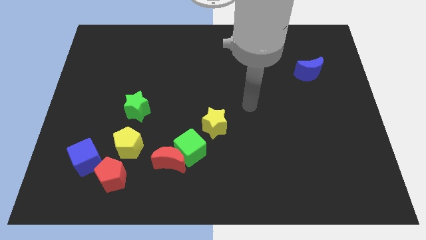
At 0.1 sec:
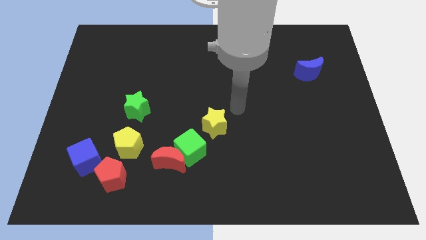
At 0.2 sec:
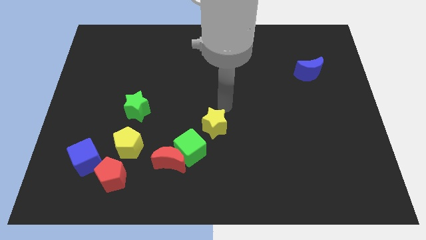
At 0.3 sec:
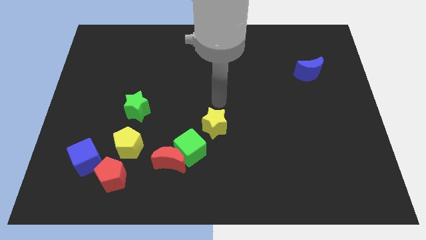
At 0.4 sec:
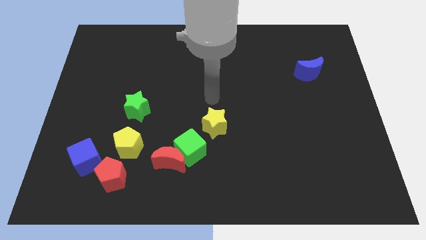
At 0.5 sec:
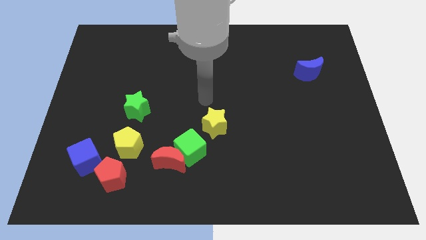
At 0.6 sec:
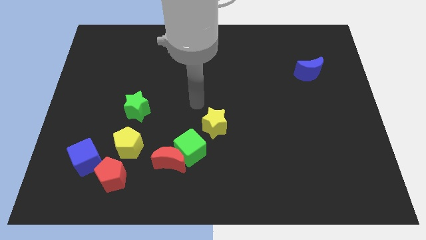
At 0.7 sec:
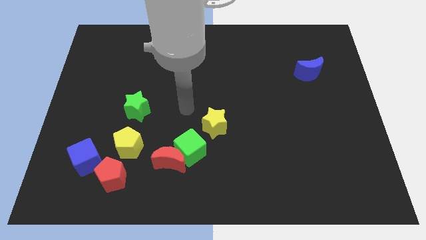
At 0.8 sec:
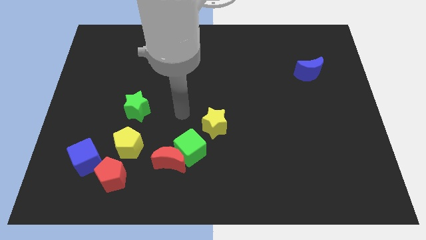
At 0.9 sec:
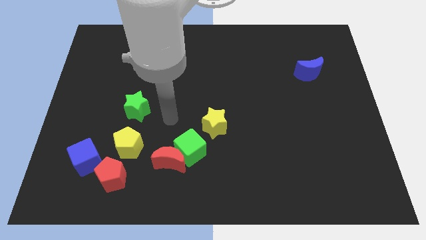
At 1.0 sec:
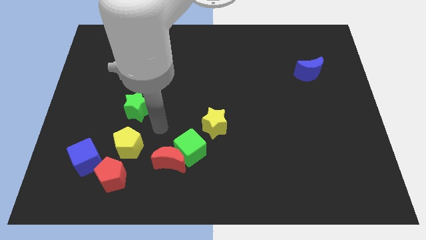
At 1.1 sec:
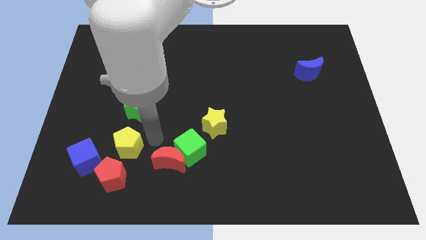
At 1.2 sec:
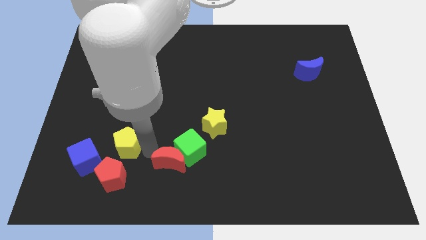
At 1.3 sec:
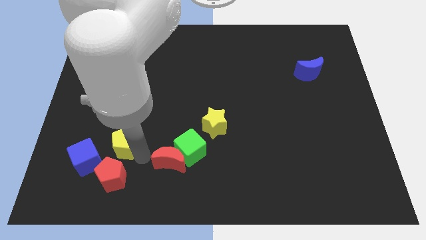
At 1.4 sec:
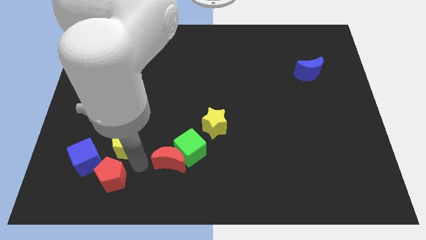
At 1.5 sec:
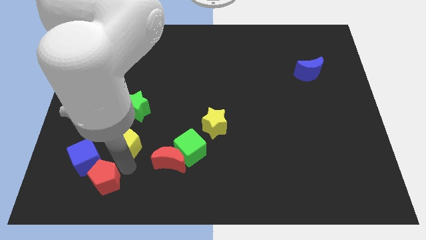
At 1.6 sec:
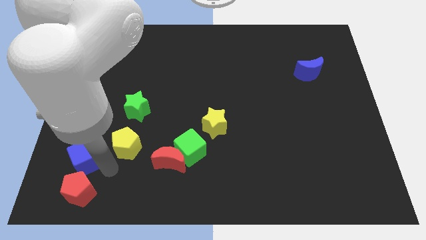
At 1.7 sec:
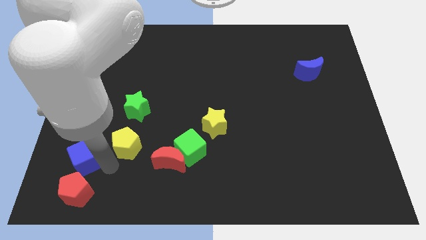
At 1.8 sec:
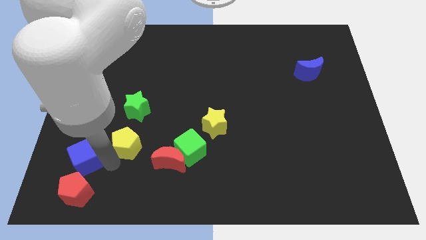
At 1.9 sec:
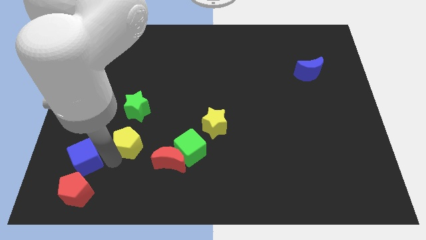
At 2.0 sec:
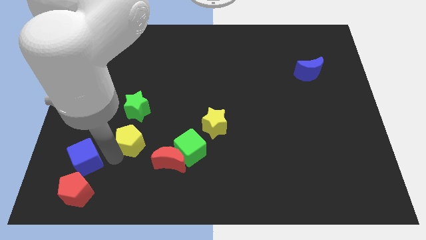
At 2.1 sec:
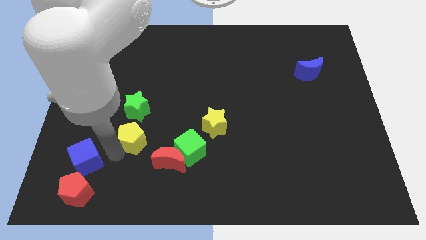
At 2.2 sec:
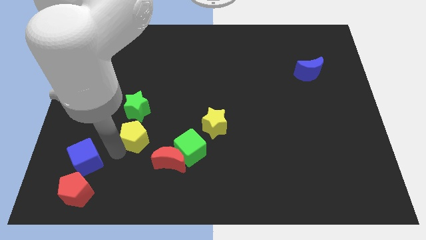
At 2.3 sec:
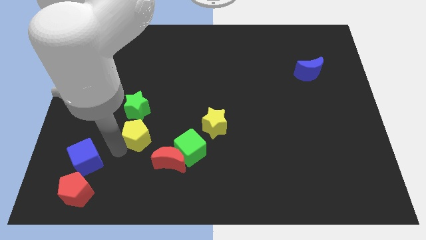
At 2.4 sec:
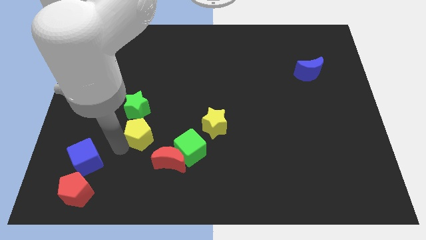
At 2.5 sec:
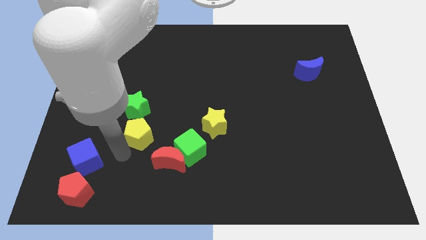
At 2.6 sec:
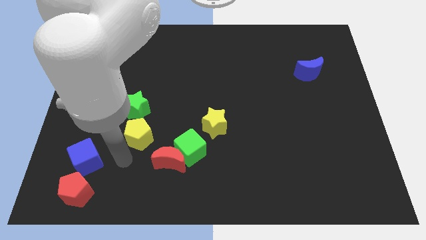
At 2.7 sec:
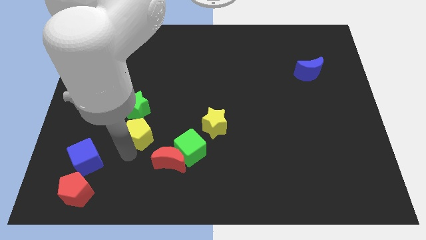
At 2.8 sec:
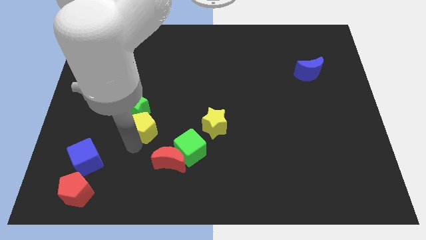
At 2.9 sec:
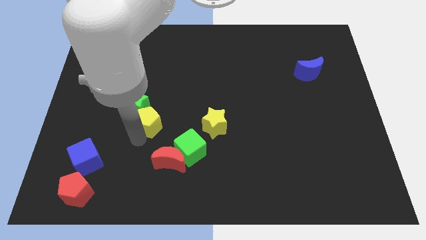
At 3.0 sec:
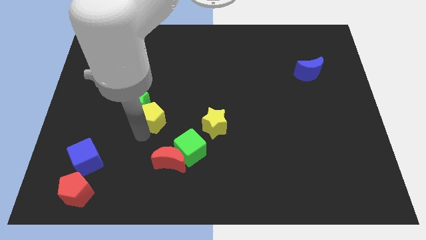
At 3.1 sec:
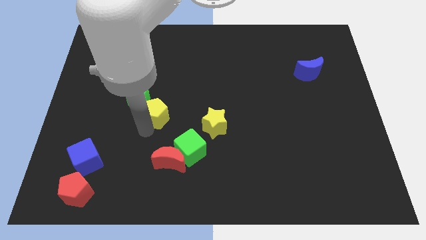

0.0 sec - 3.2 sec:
slide the yellow pentagon upwards a little

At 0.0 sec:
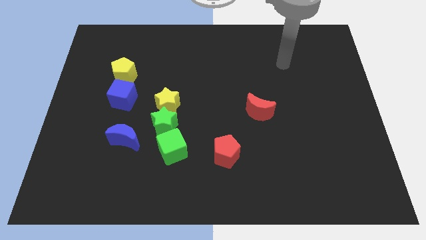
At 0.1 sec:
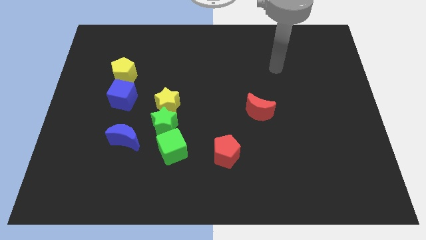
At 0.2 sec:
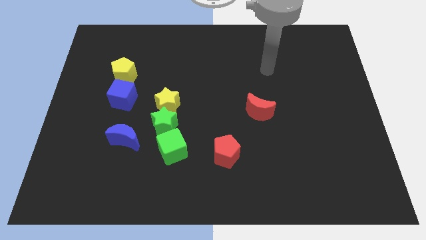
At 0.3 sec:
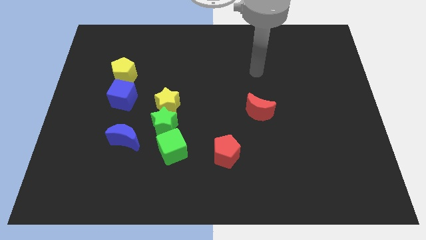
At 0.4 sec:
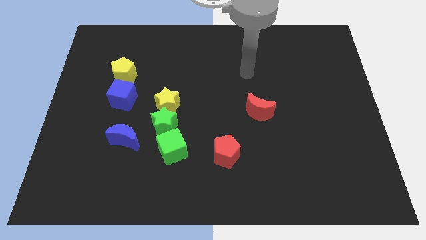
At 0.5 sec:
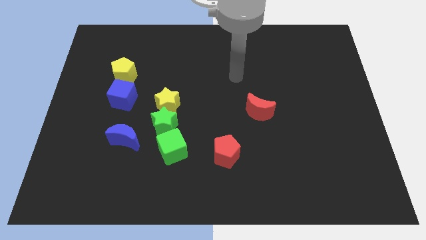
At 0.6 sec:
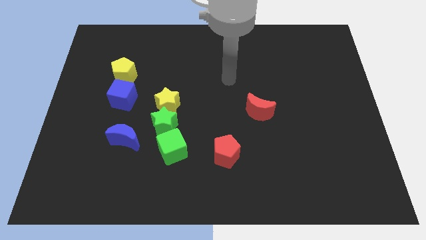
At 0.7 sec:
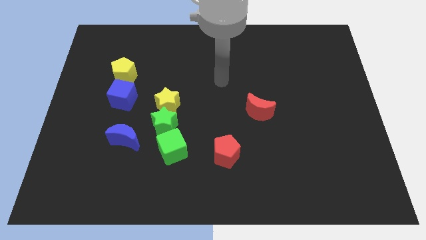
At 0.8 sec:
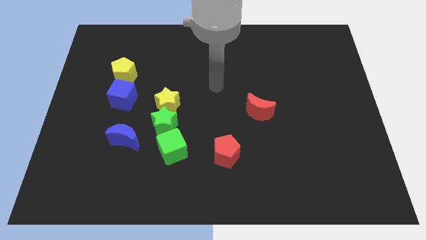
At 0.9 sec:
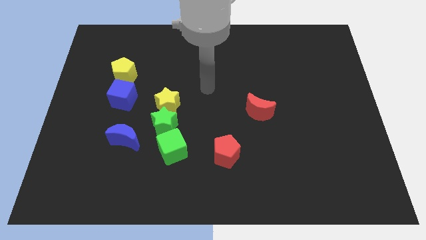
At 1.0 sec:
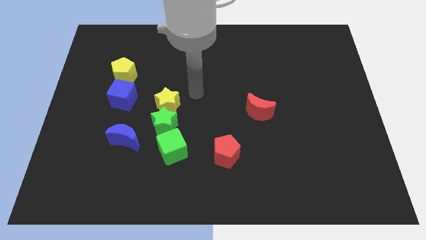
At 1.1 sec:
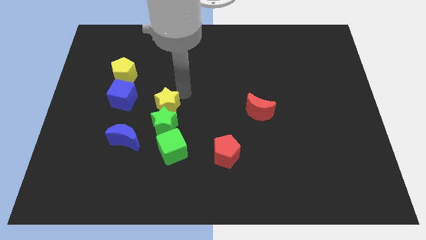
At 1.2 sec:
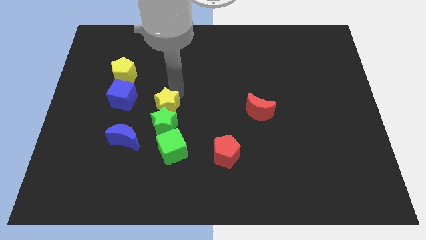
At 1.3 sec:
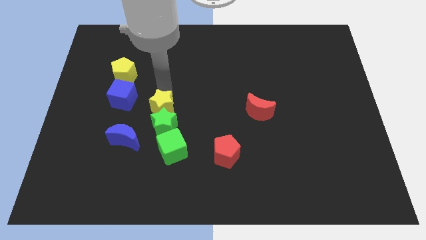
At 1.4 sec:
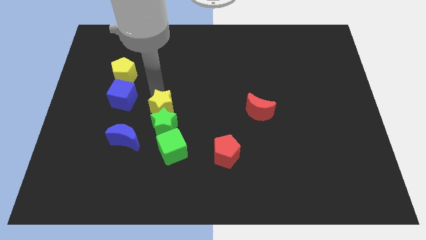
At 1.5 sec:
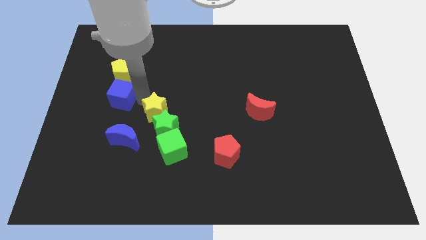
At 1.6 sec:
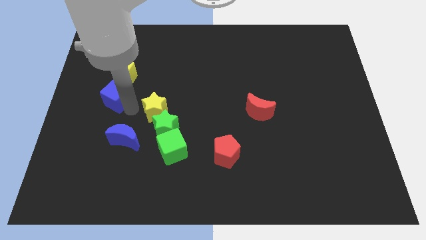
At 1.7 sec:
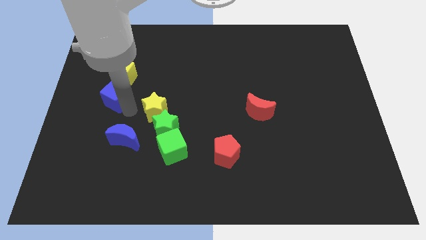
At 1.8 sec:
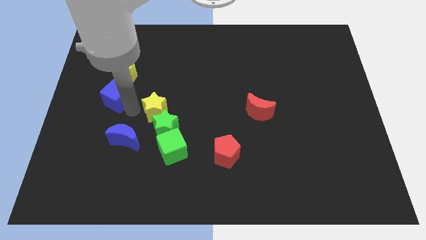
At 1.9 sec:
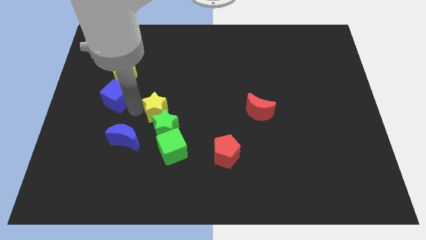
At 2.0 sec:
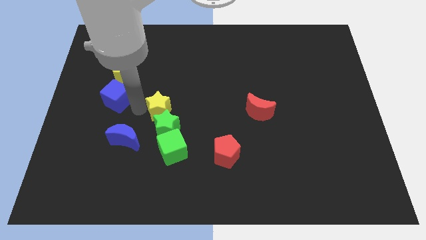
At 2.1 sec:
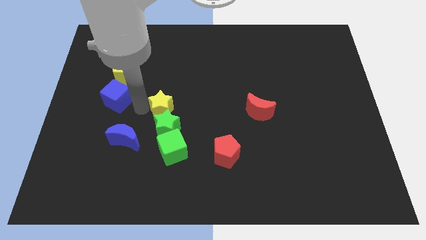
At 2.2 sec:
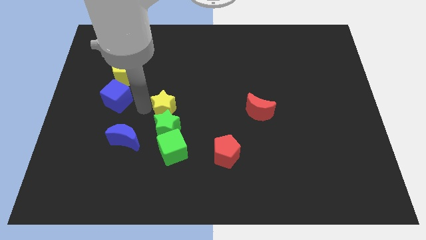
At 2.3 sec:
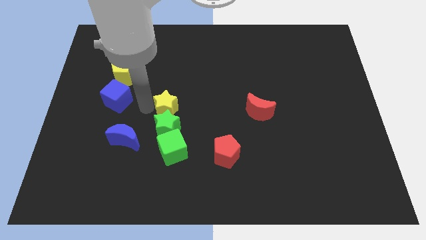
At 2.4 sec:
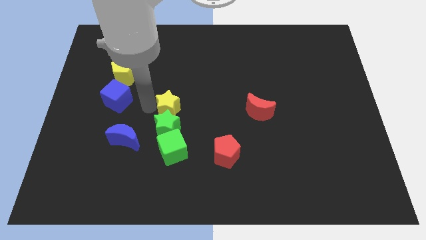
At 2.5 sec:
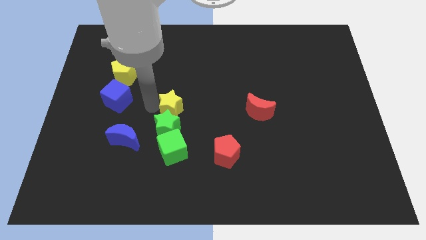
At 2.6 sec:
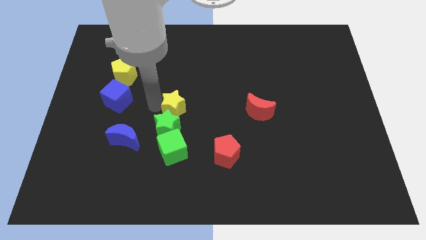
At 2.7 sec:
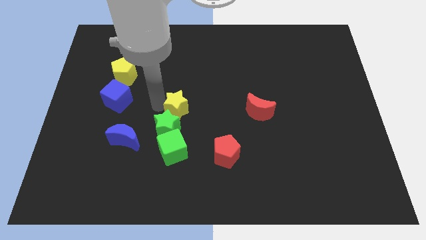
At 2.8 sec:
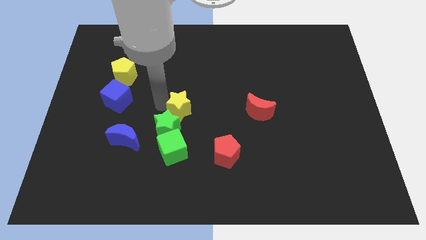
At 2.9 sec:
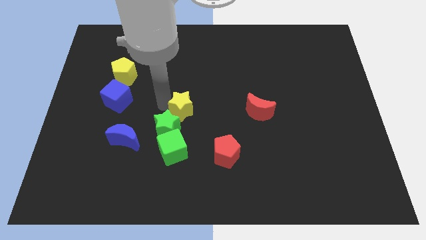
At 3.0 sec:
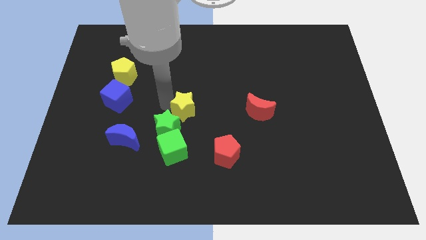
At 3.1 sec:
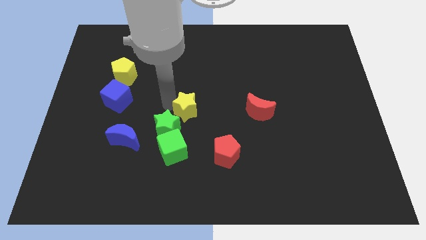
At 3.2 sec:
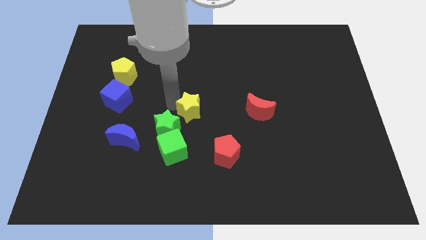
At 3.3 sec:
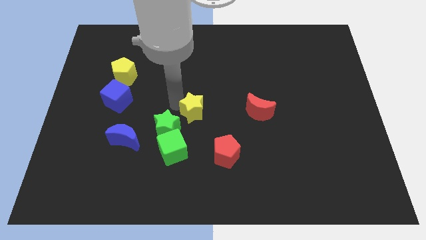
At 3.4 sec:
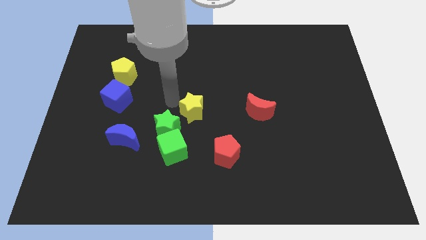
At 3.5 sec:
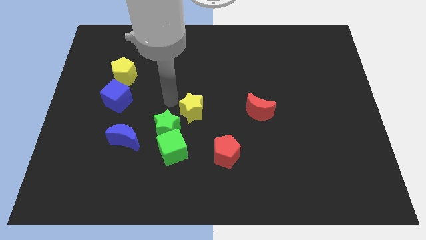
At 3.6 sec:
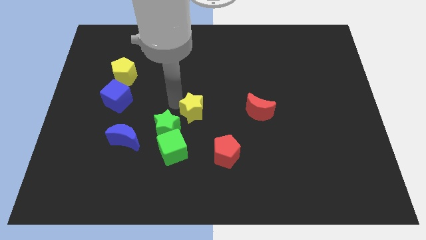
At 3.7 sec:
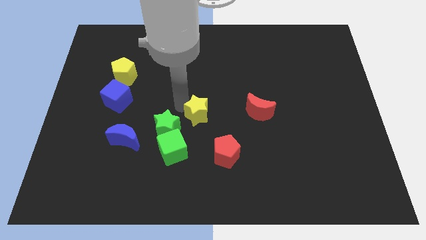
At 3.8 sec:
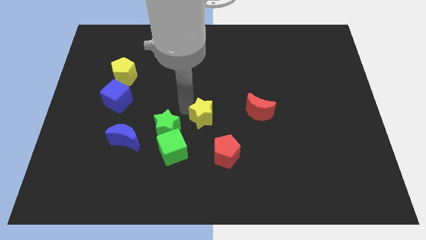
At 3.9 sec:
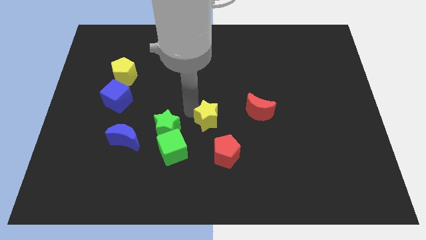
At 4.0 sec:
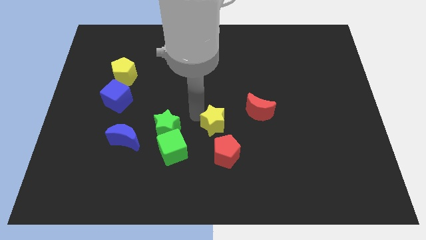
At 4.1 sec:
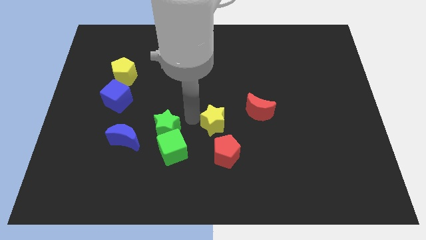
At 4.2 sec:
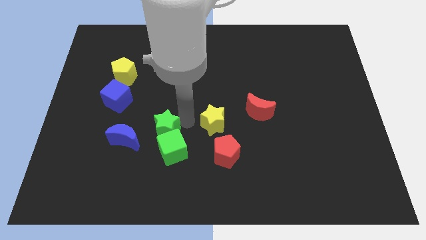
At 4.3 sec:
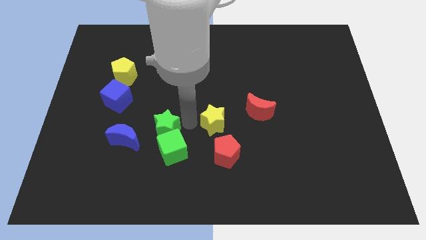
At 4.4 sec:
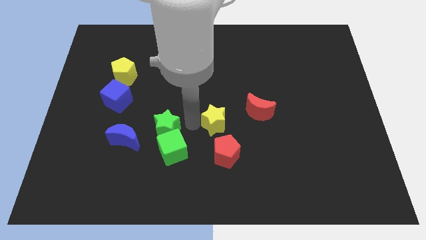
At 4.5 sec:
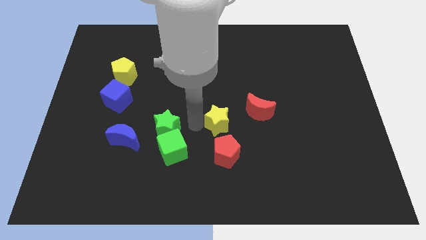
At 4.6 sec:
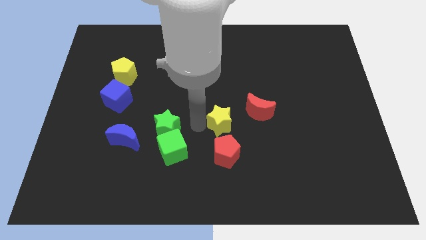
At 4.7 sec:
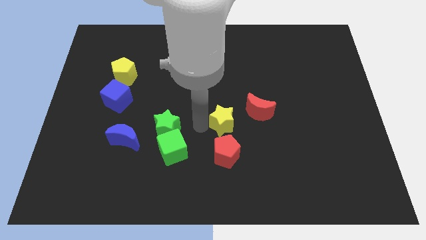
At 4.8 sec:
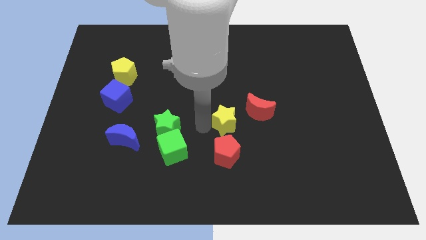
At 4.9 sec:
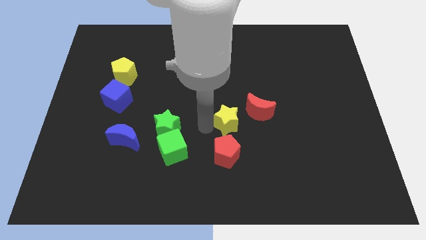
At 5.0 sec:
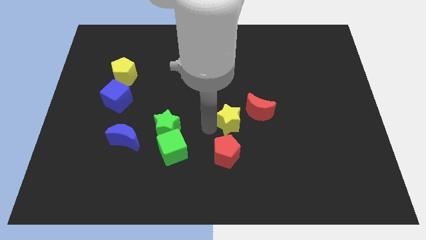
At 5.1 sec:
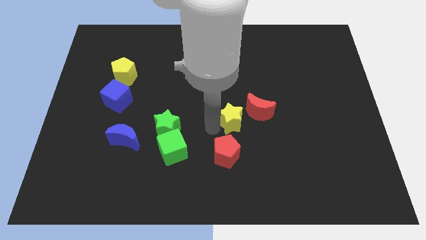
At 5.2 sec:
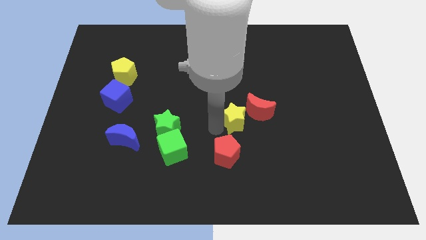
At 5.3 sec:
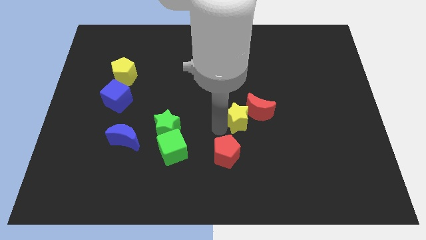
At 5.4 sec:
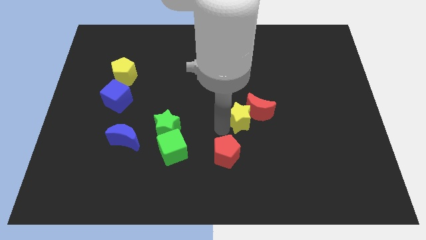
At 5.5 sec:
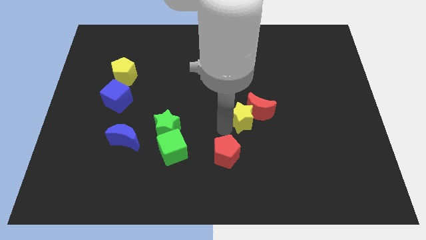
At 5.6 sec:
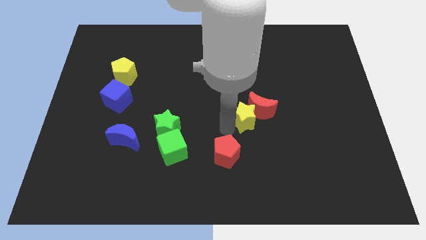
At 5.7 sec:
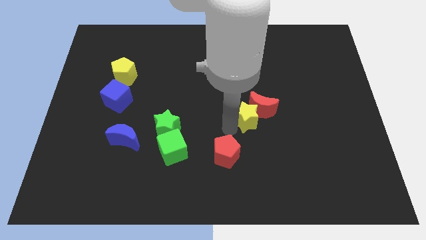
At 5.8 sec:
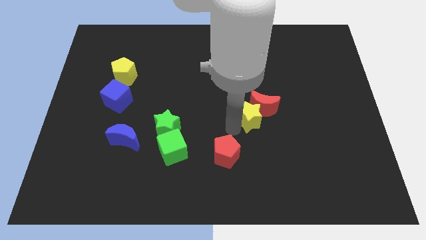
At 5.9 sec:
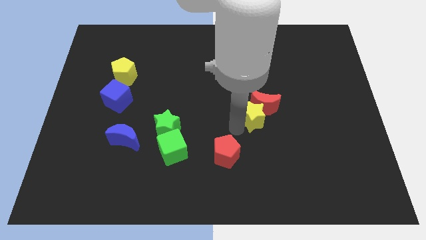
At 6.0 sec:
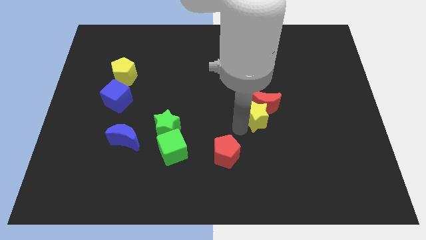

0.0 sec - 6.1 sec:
move the yellow star right
